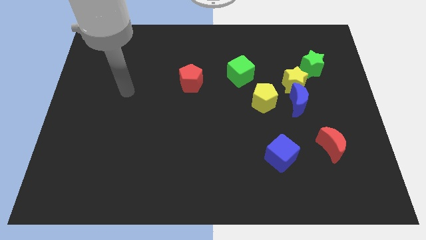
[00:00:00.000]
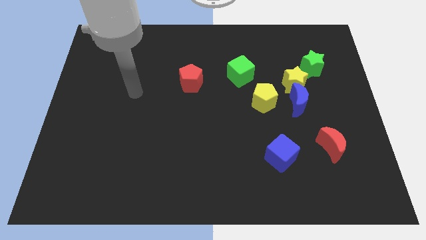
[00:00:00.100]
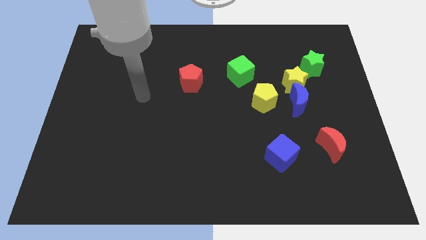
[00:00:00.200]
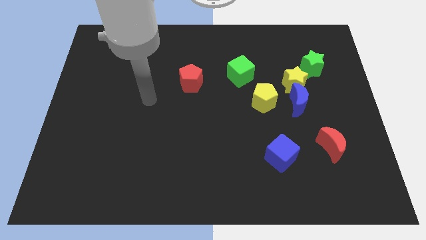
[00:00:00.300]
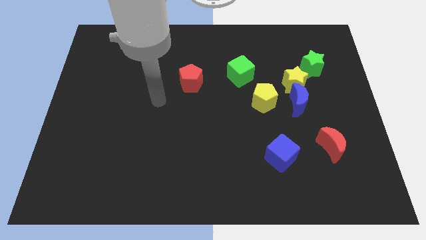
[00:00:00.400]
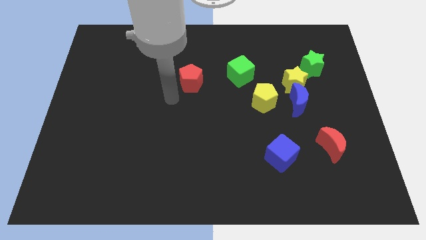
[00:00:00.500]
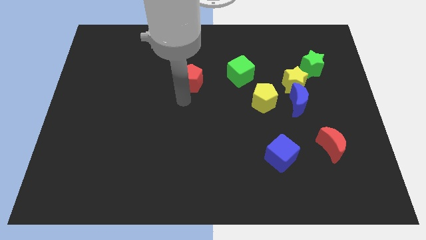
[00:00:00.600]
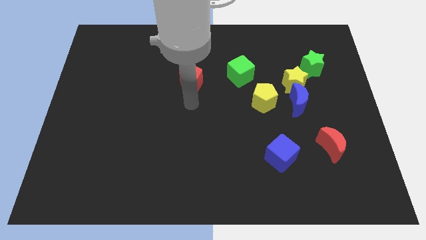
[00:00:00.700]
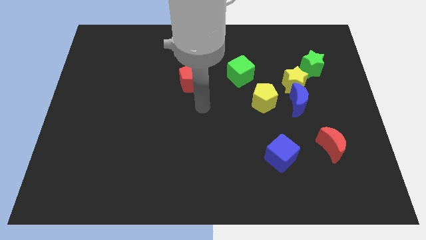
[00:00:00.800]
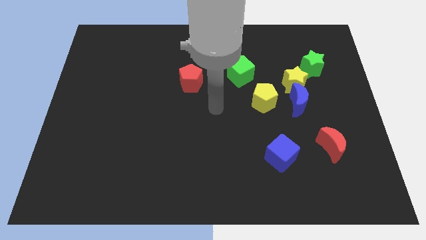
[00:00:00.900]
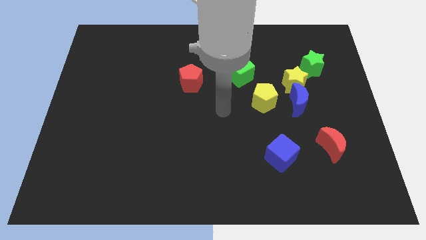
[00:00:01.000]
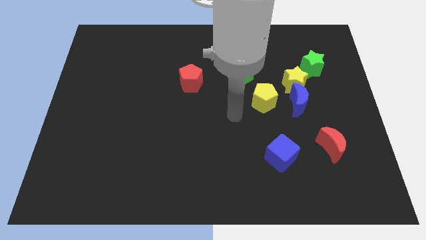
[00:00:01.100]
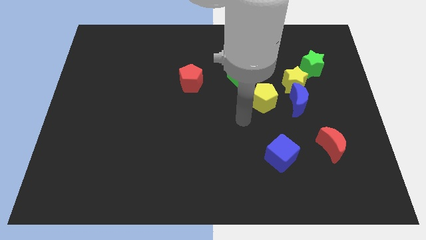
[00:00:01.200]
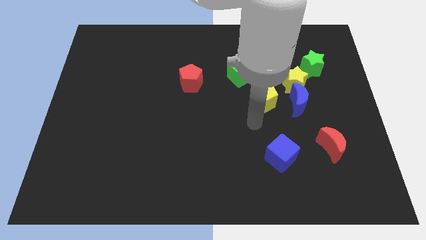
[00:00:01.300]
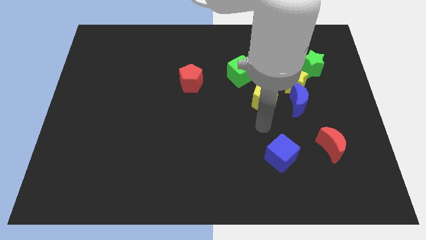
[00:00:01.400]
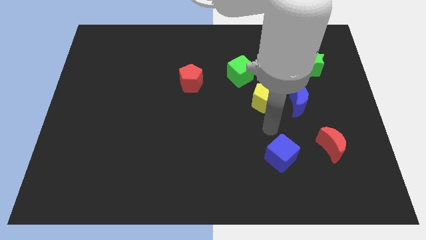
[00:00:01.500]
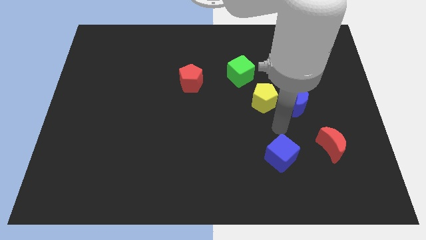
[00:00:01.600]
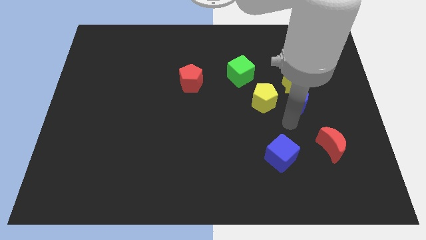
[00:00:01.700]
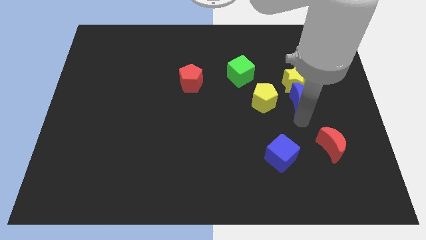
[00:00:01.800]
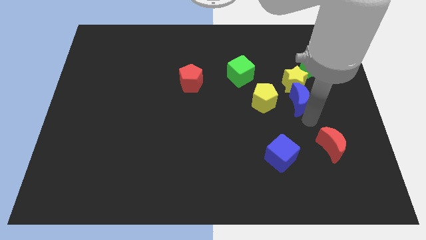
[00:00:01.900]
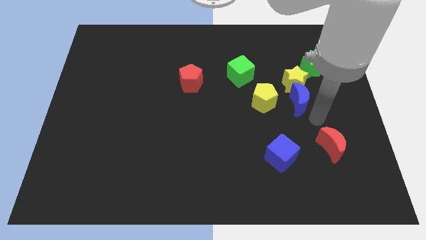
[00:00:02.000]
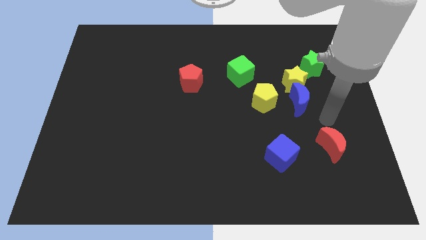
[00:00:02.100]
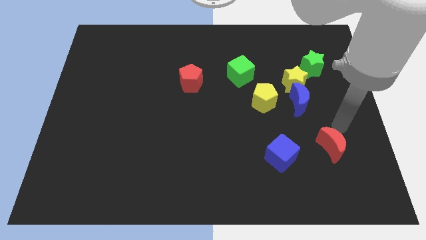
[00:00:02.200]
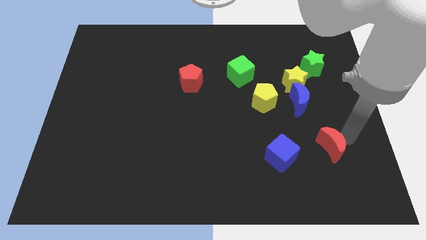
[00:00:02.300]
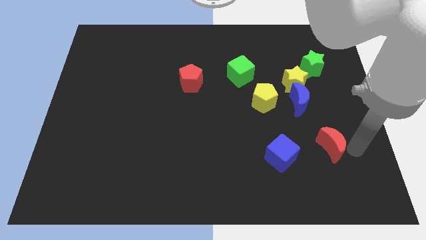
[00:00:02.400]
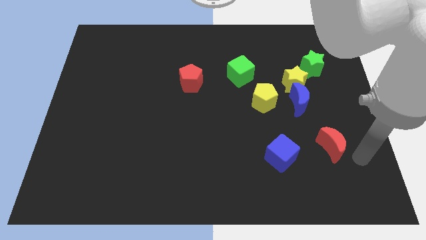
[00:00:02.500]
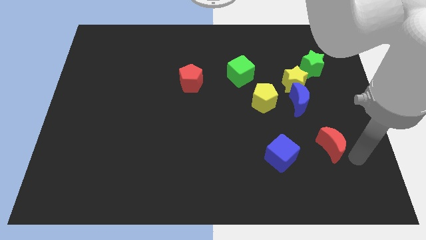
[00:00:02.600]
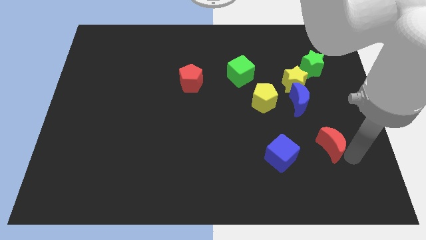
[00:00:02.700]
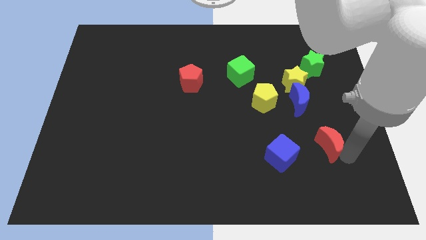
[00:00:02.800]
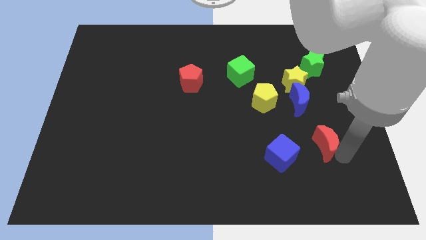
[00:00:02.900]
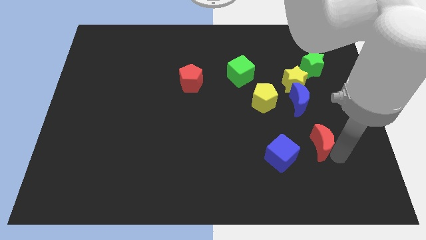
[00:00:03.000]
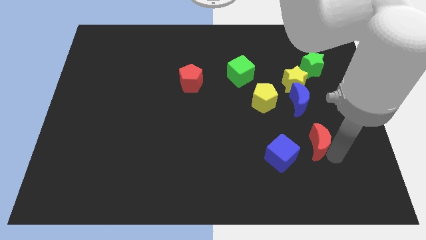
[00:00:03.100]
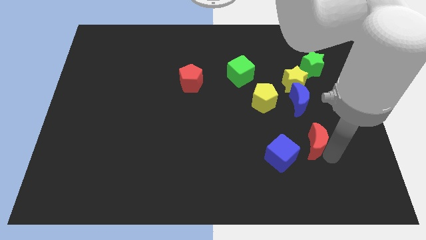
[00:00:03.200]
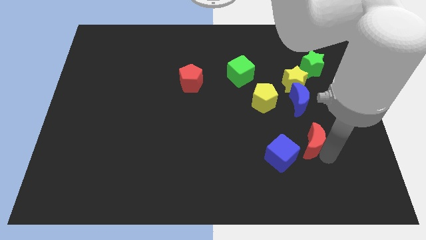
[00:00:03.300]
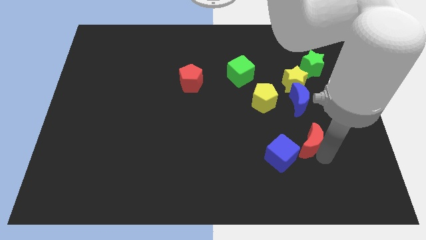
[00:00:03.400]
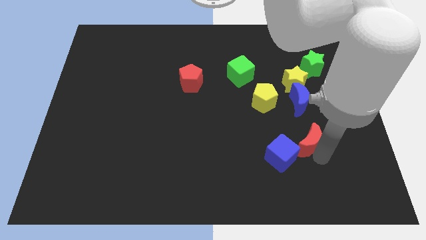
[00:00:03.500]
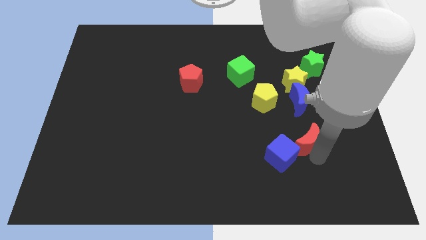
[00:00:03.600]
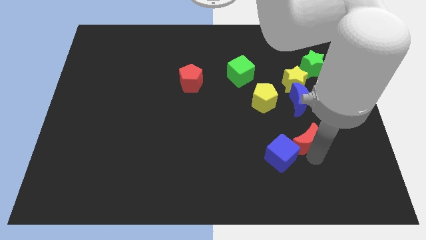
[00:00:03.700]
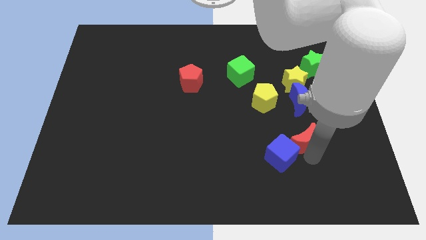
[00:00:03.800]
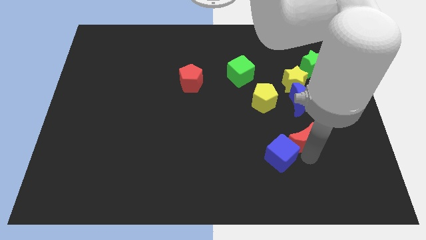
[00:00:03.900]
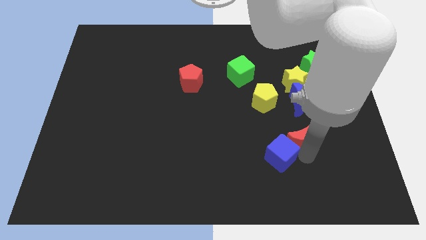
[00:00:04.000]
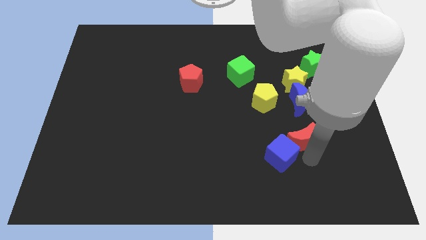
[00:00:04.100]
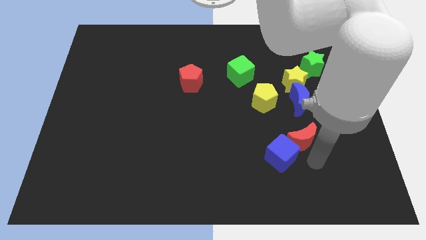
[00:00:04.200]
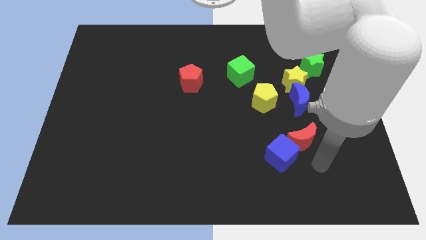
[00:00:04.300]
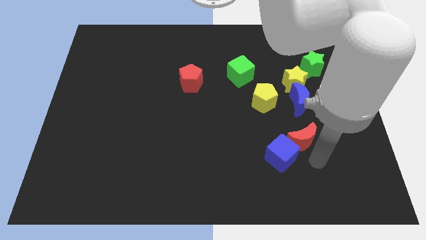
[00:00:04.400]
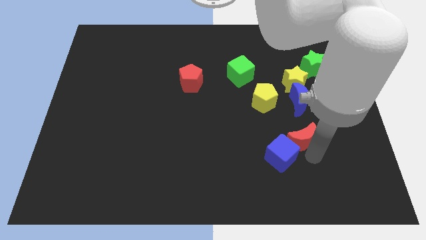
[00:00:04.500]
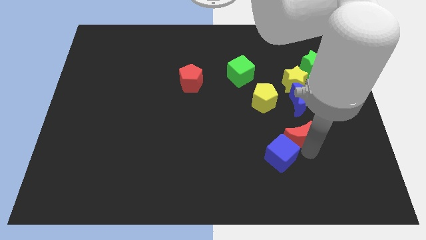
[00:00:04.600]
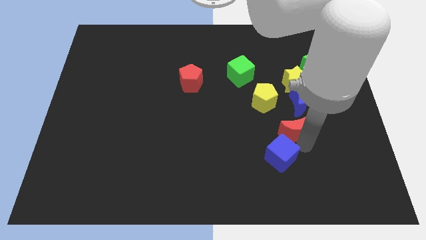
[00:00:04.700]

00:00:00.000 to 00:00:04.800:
slide the red moon diagonally down and to the left of the blue moon

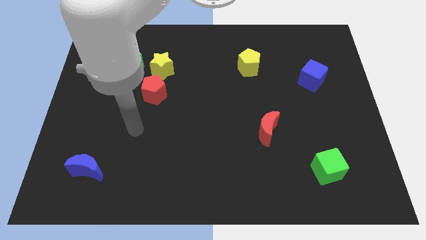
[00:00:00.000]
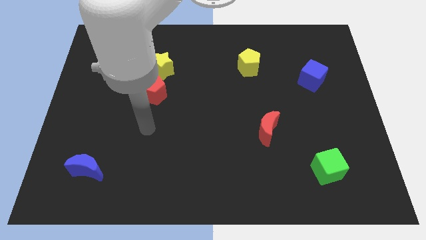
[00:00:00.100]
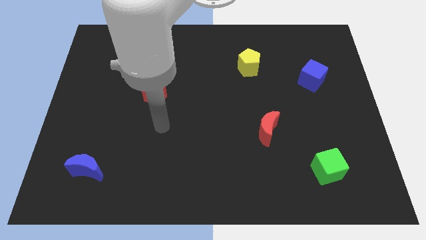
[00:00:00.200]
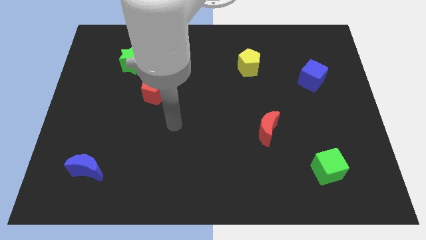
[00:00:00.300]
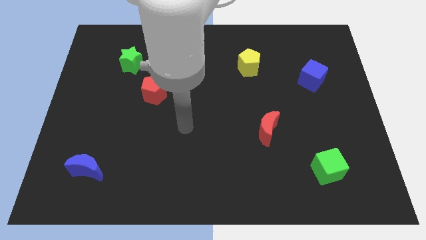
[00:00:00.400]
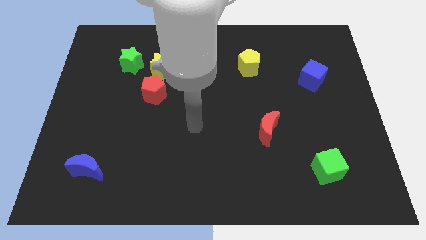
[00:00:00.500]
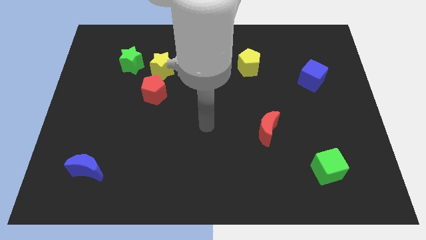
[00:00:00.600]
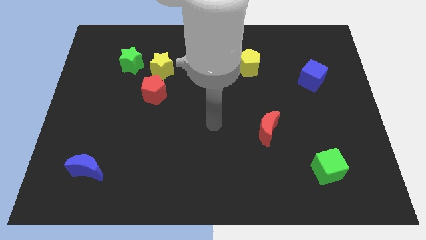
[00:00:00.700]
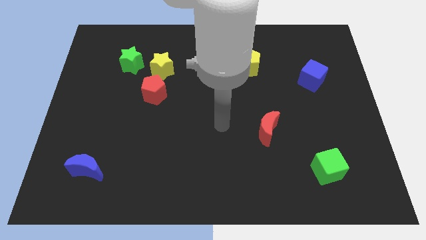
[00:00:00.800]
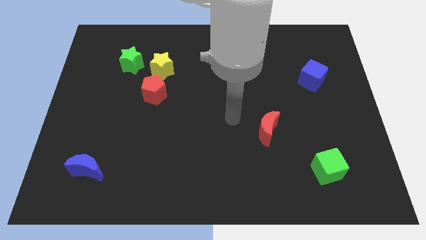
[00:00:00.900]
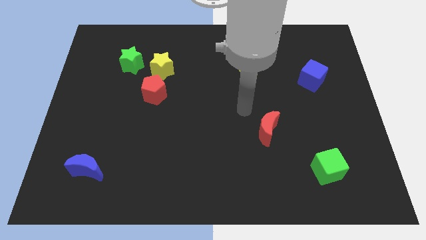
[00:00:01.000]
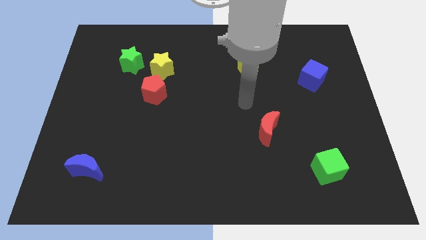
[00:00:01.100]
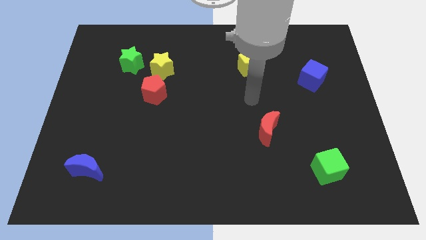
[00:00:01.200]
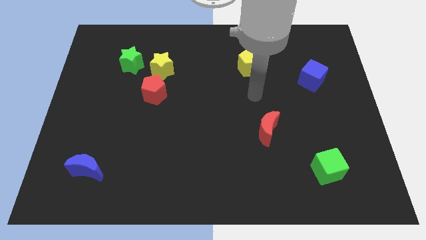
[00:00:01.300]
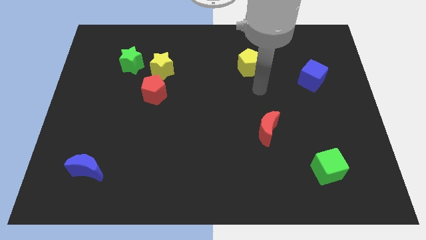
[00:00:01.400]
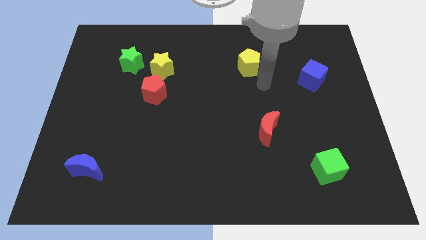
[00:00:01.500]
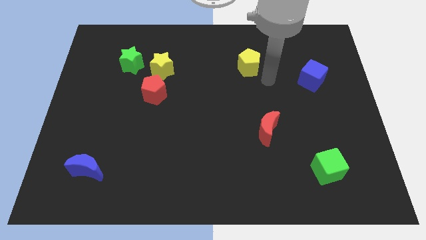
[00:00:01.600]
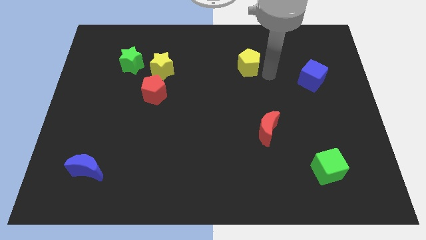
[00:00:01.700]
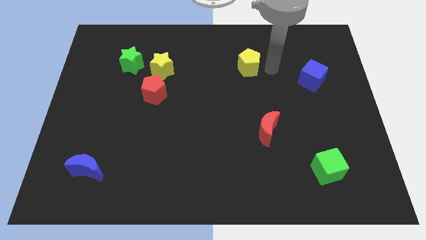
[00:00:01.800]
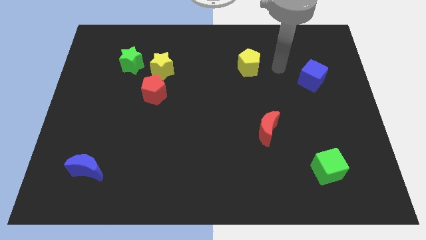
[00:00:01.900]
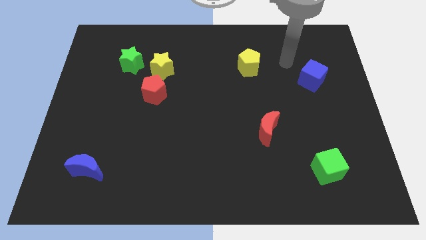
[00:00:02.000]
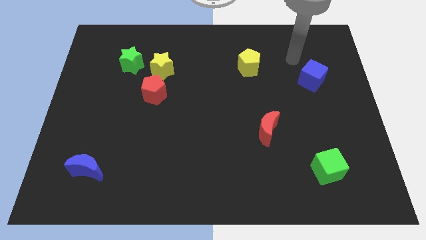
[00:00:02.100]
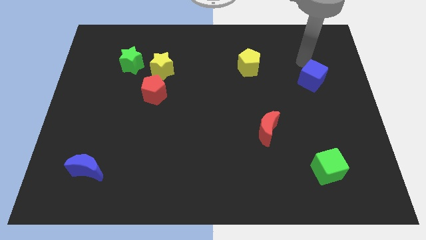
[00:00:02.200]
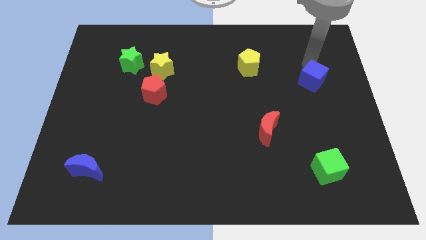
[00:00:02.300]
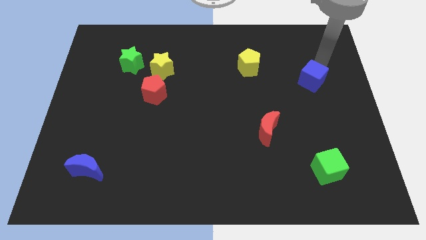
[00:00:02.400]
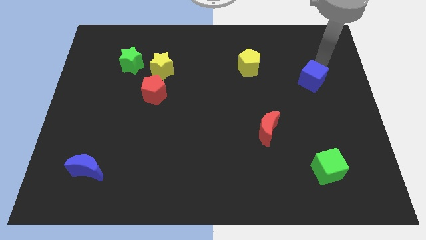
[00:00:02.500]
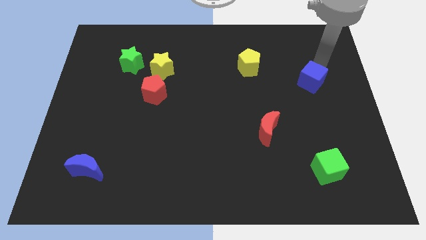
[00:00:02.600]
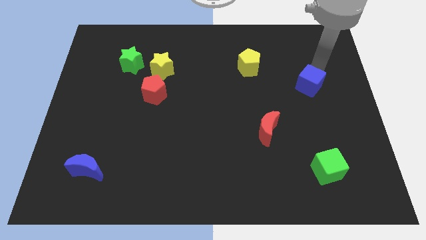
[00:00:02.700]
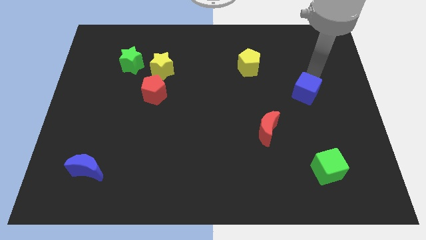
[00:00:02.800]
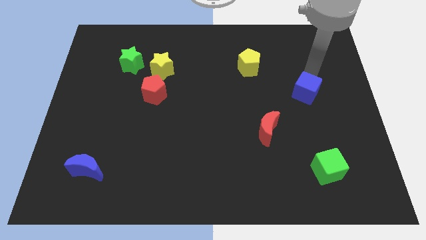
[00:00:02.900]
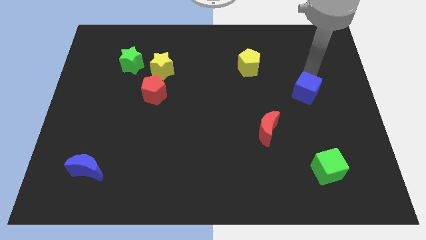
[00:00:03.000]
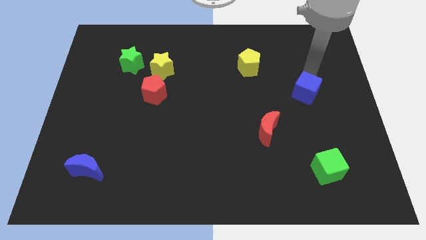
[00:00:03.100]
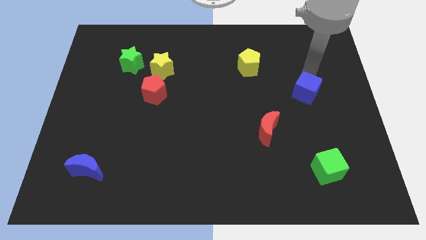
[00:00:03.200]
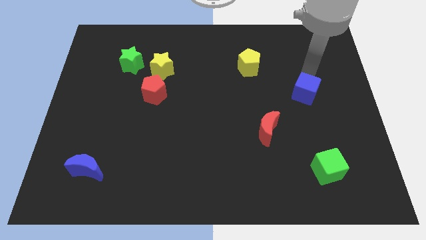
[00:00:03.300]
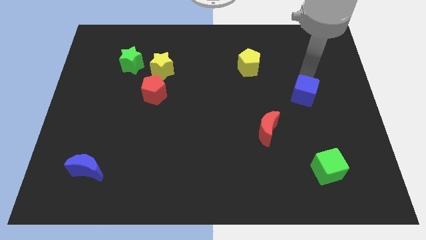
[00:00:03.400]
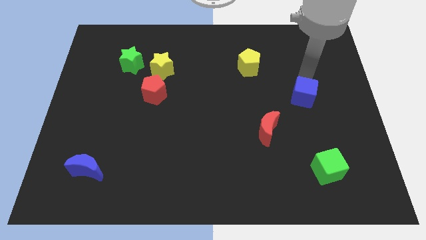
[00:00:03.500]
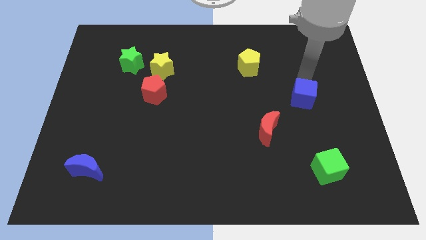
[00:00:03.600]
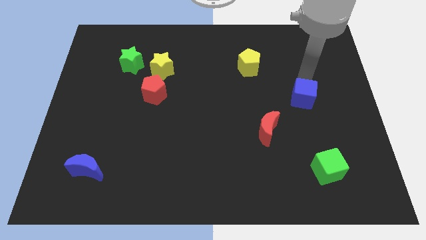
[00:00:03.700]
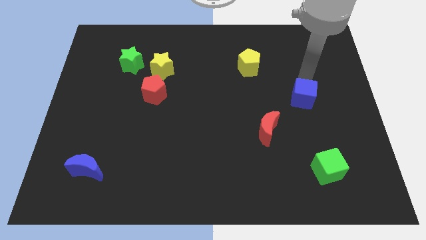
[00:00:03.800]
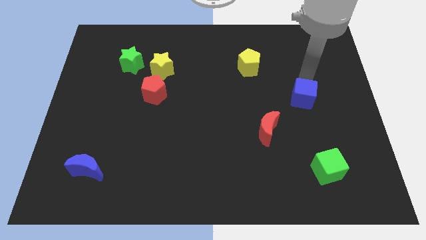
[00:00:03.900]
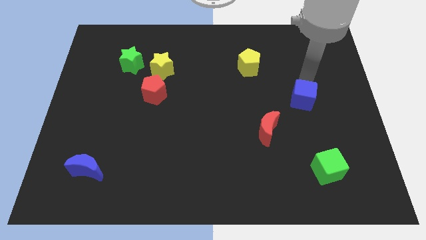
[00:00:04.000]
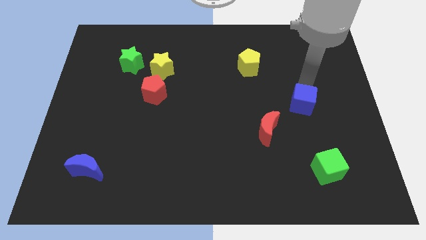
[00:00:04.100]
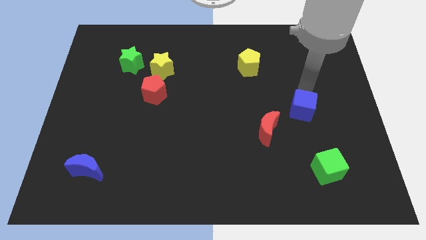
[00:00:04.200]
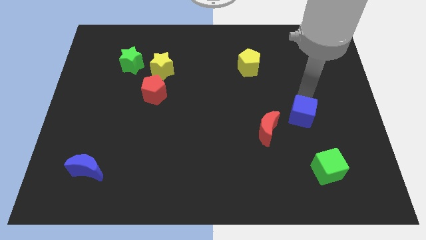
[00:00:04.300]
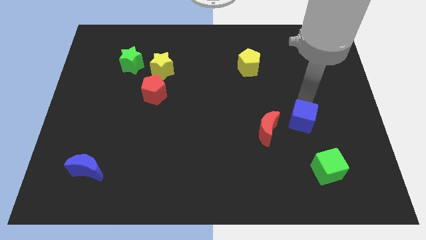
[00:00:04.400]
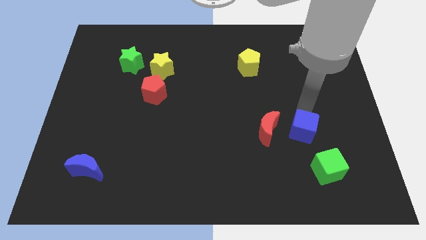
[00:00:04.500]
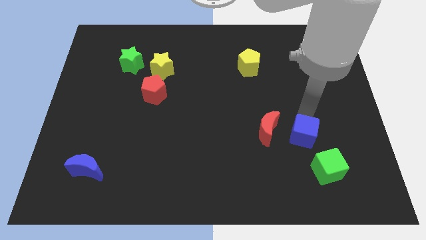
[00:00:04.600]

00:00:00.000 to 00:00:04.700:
slide the blue cube diagonally down and to the right of the red moon
